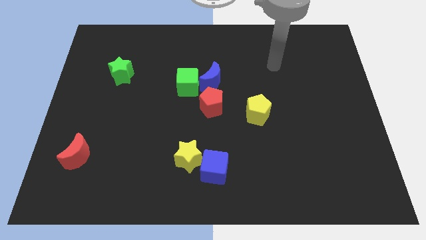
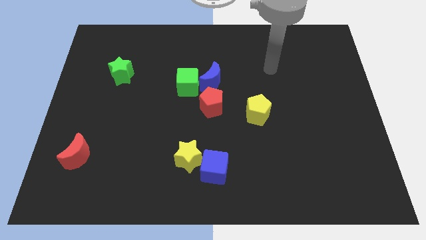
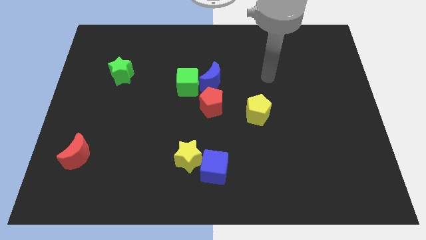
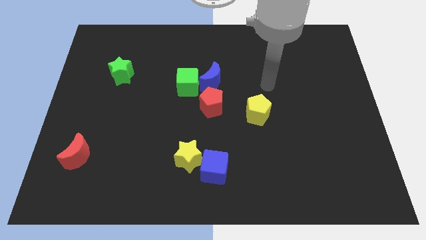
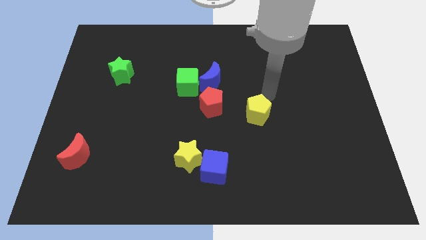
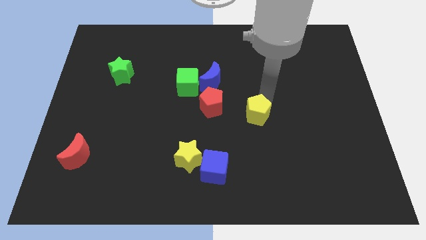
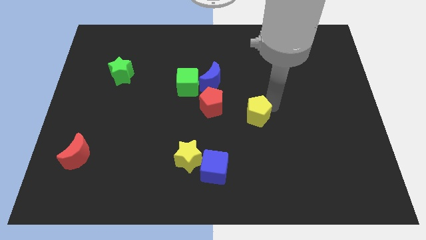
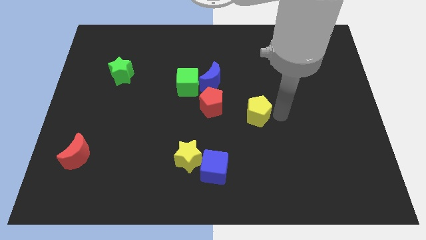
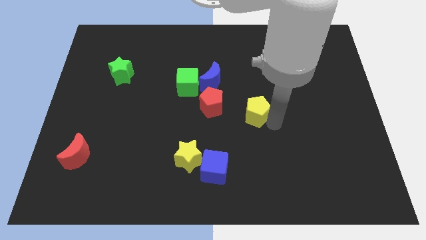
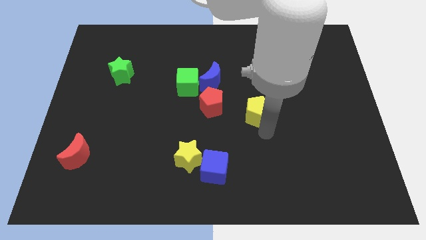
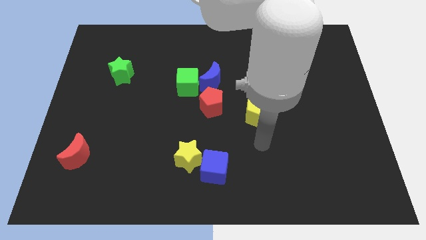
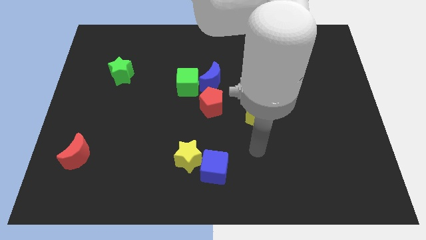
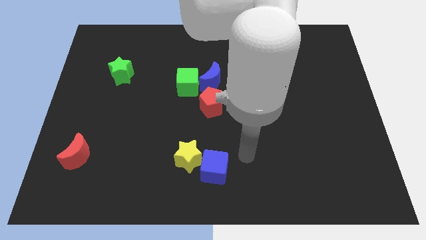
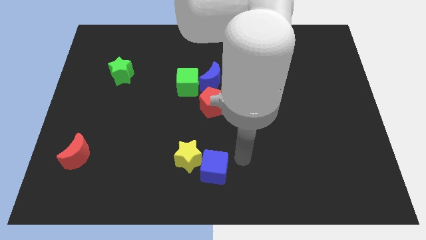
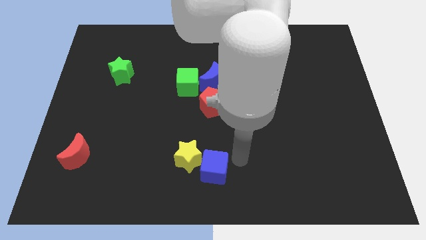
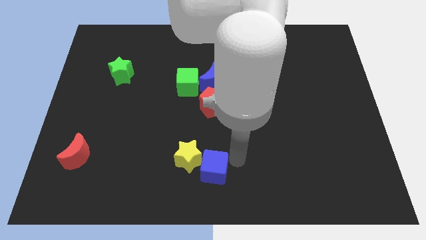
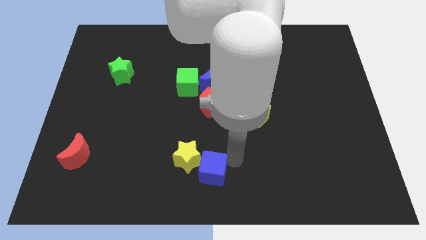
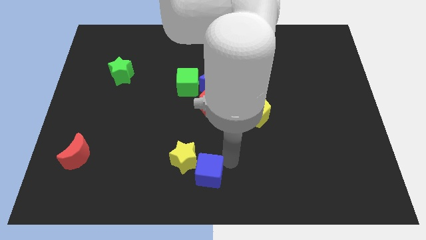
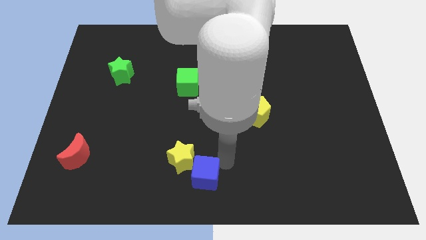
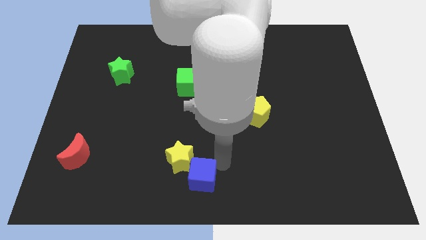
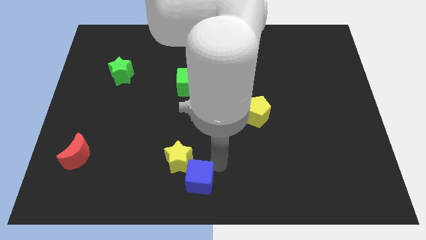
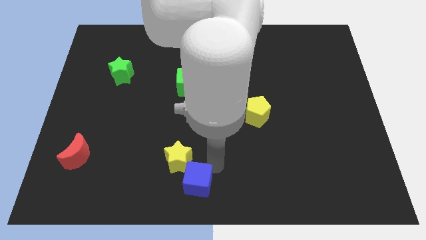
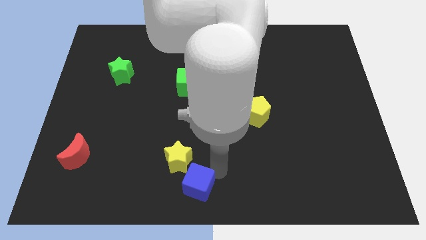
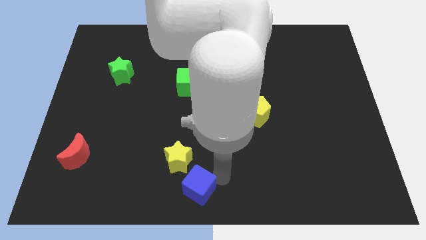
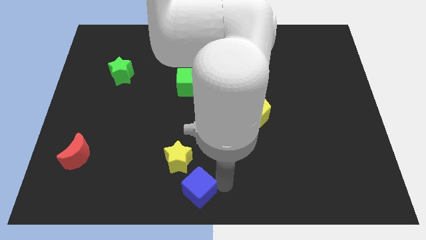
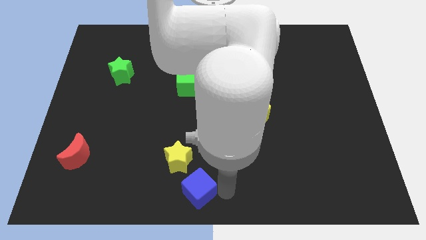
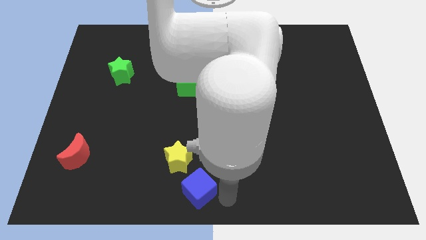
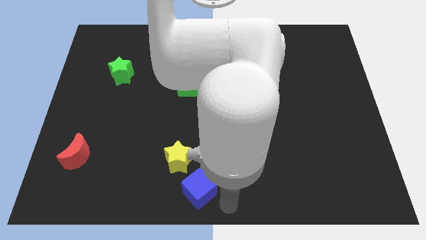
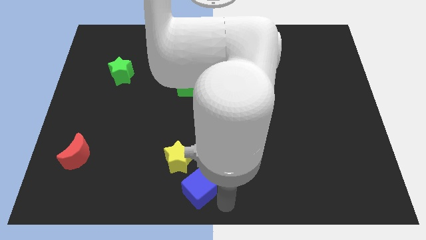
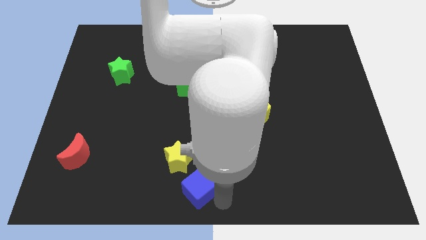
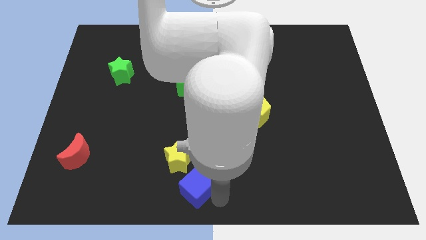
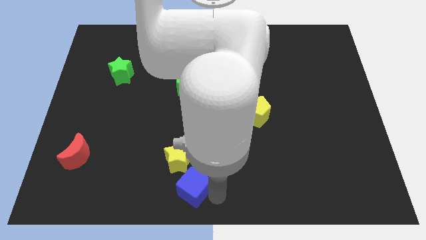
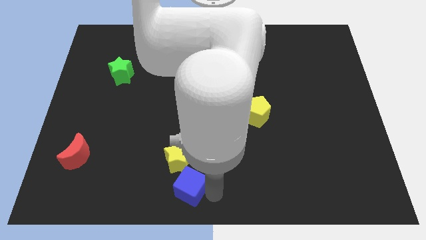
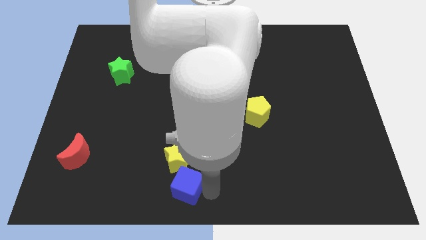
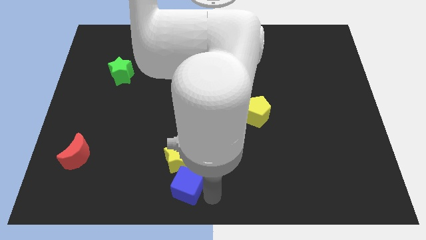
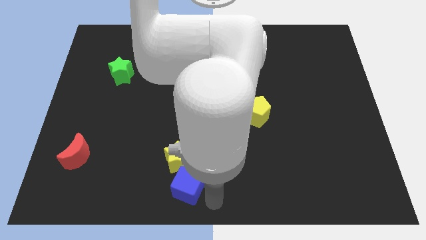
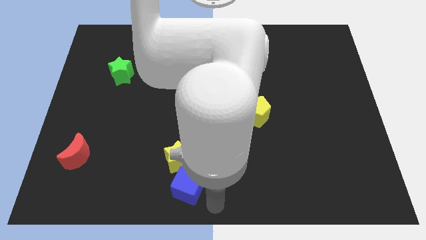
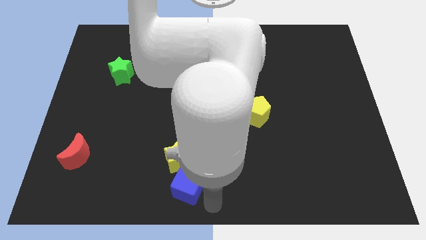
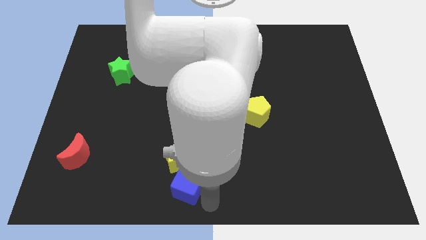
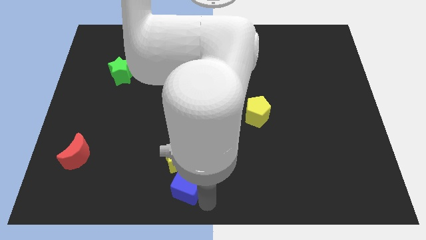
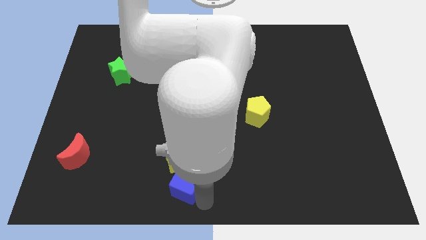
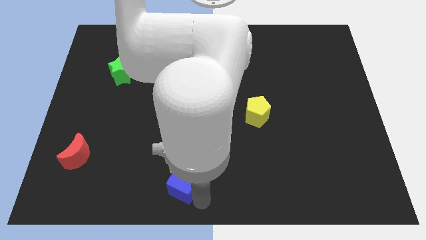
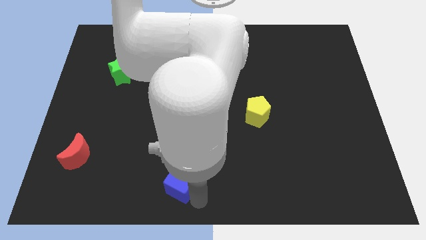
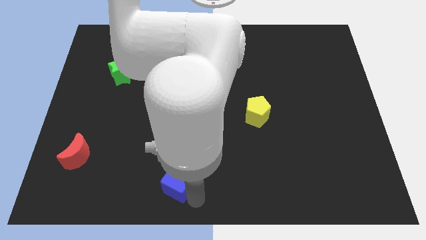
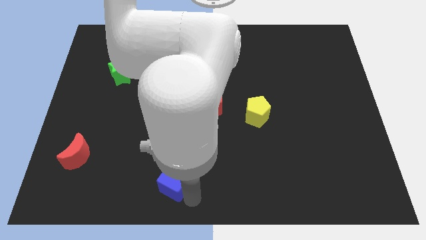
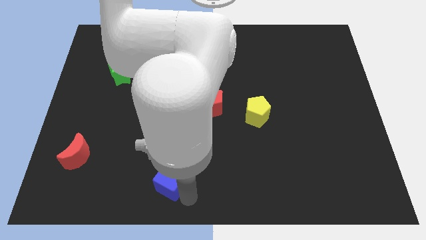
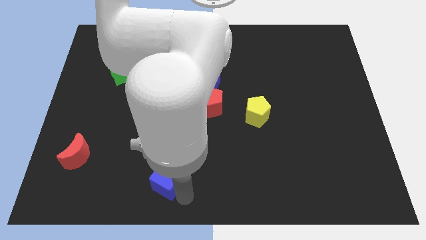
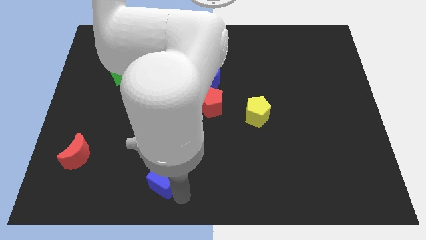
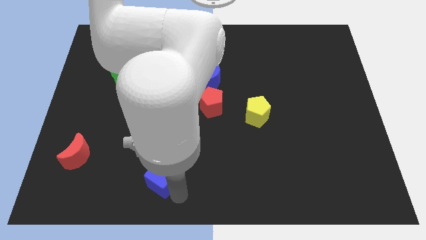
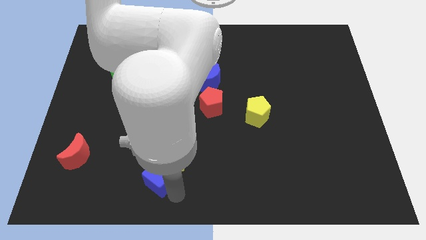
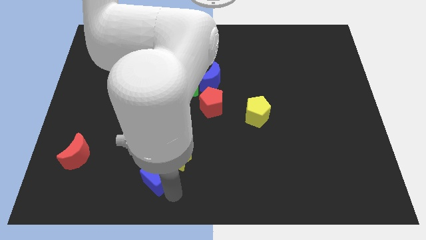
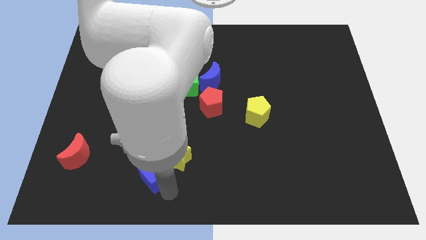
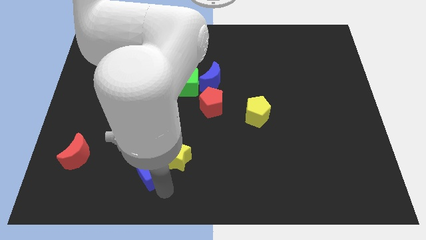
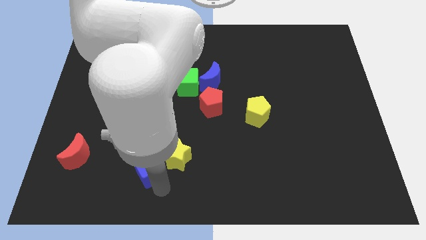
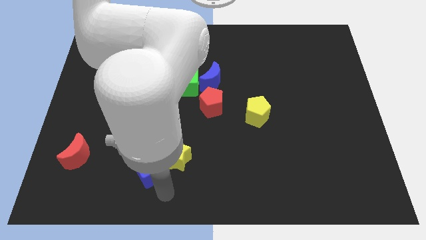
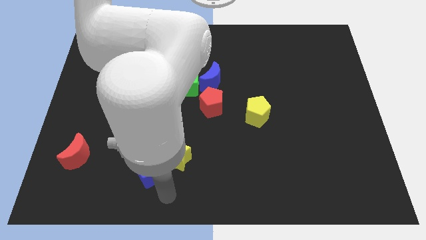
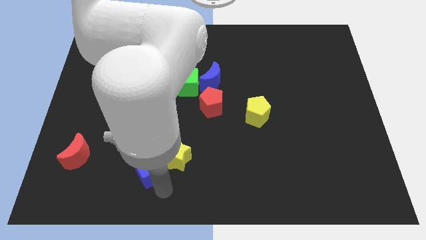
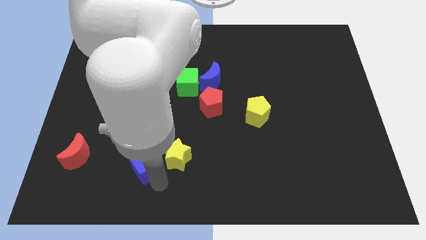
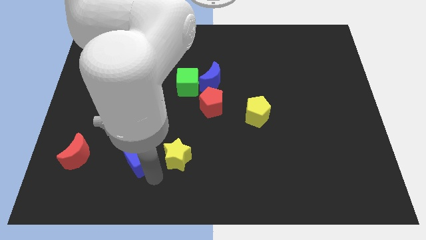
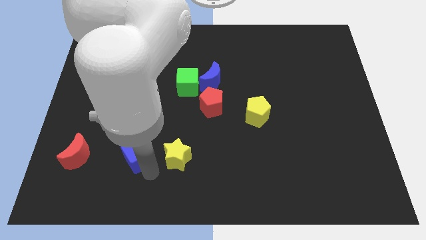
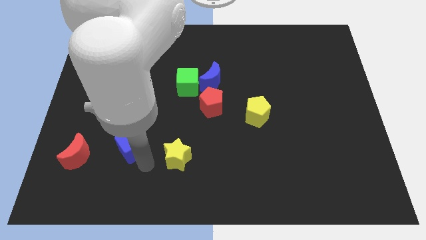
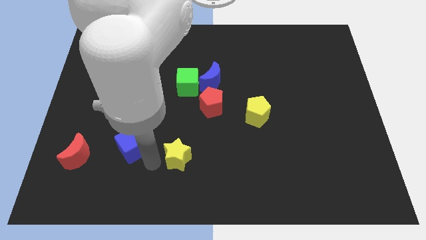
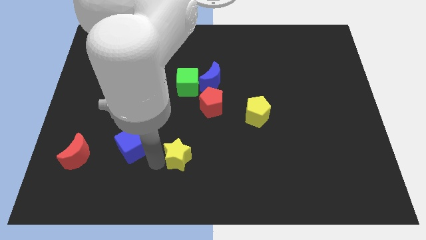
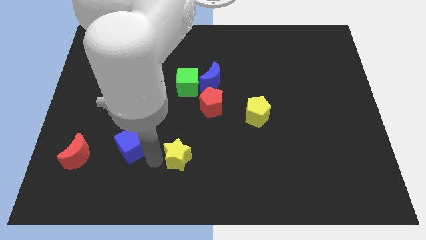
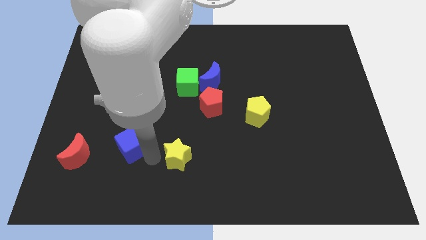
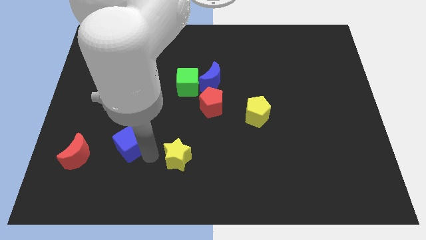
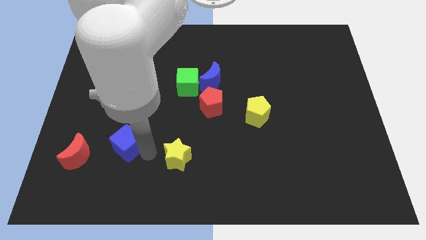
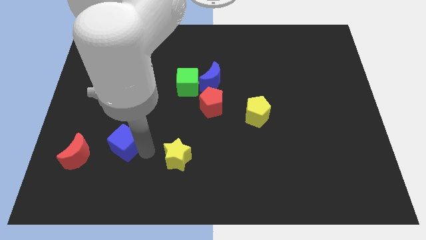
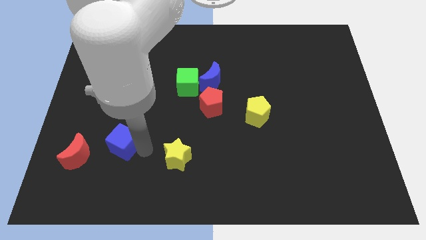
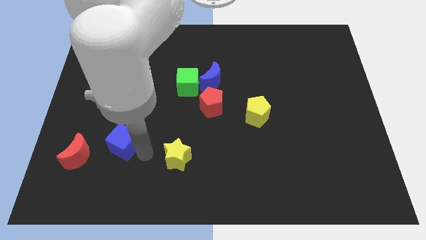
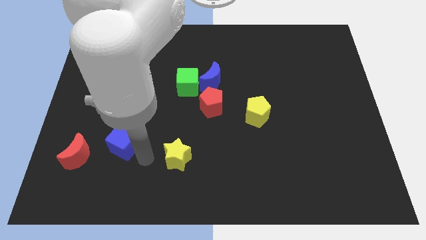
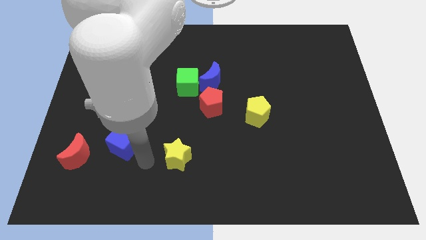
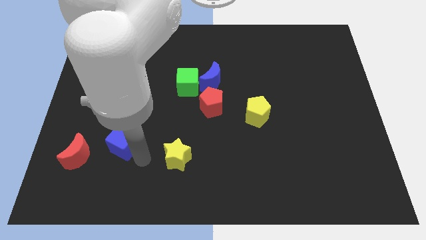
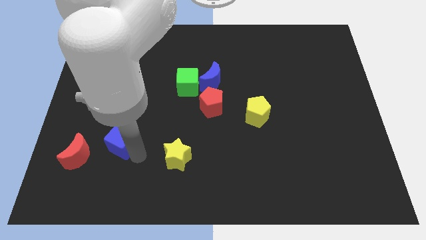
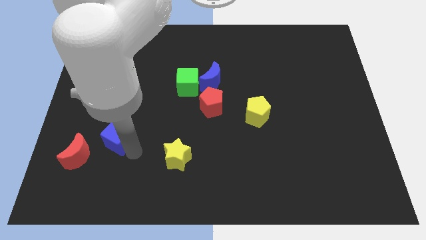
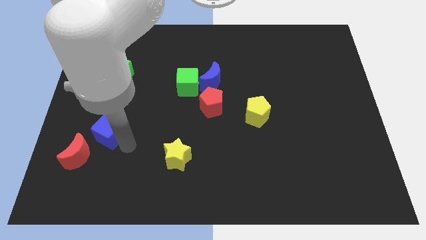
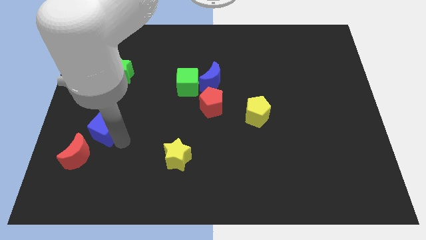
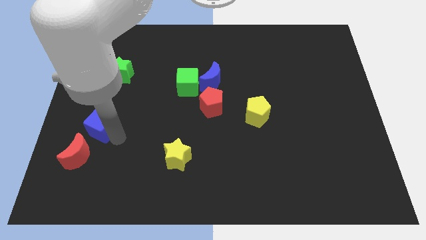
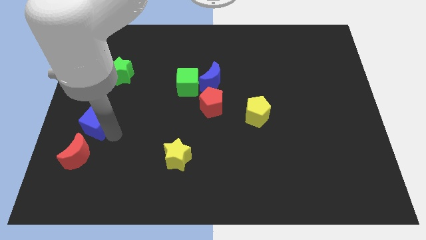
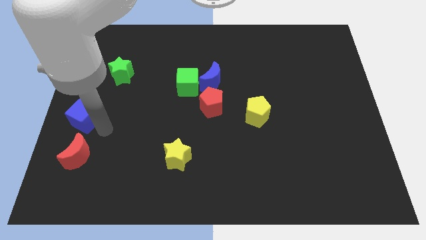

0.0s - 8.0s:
slide the blue cube to the left side of the board
